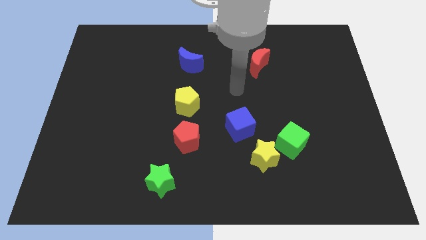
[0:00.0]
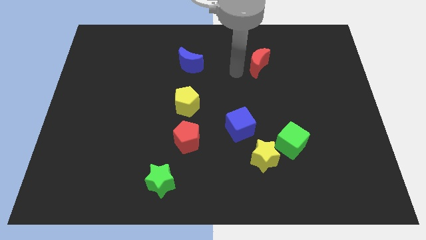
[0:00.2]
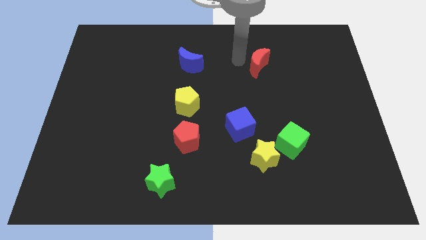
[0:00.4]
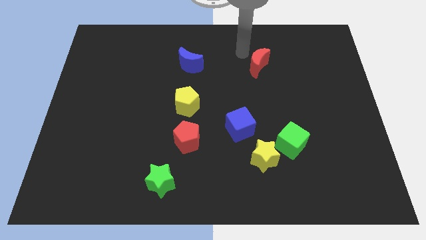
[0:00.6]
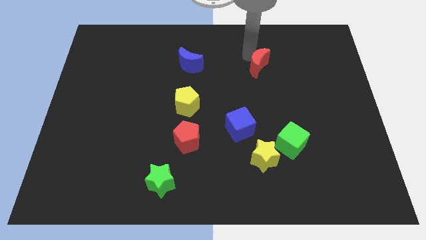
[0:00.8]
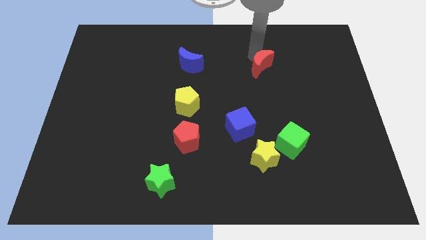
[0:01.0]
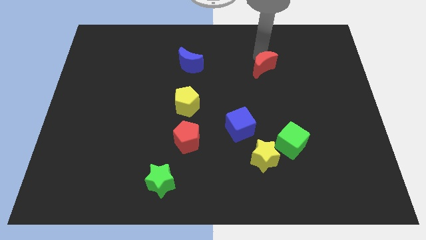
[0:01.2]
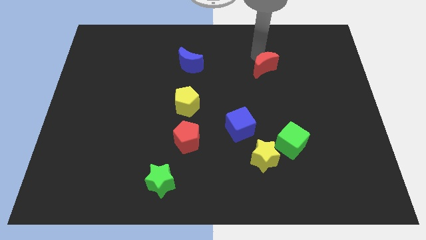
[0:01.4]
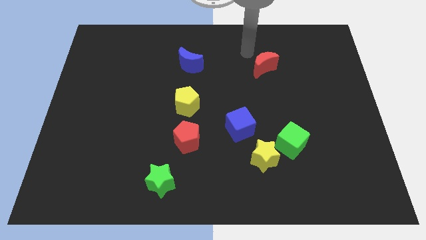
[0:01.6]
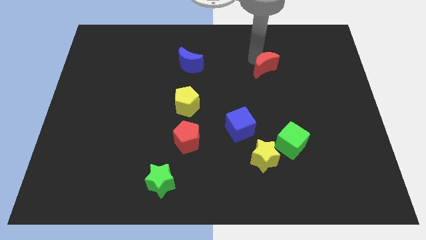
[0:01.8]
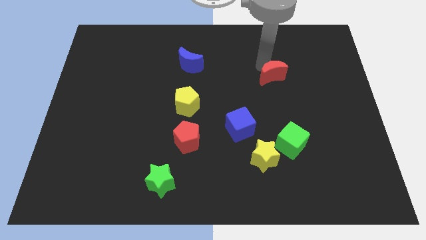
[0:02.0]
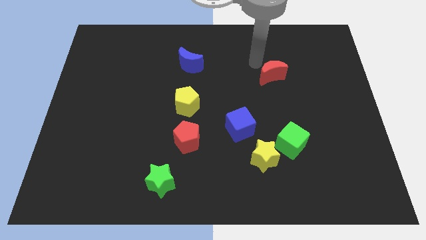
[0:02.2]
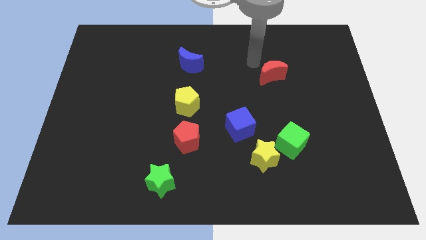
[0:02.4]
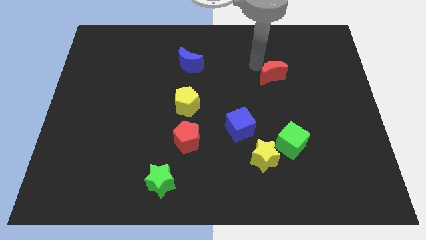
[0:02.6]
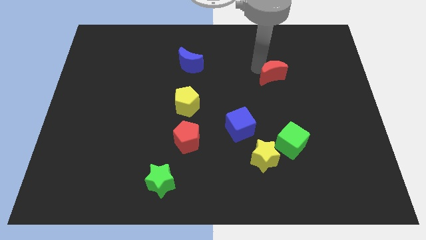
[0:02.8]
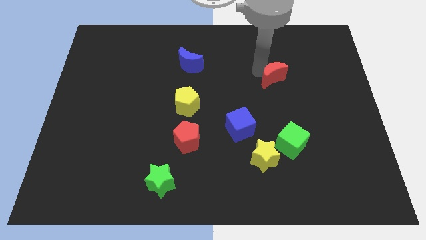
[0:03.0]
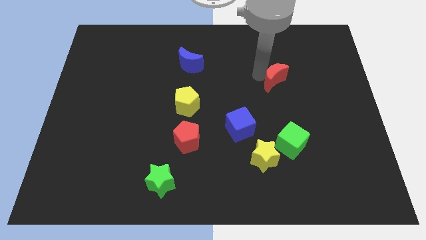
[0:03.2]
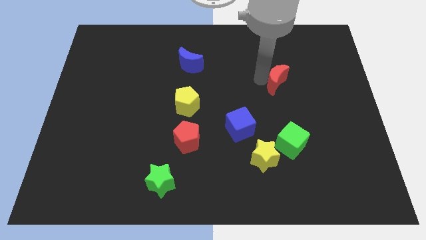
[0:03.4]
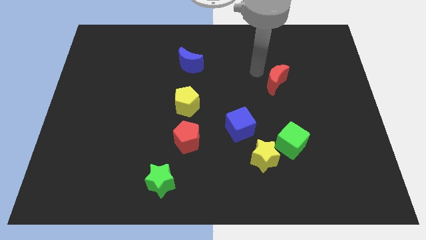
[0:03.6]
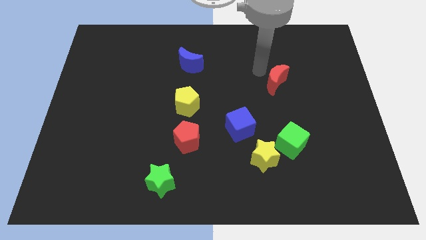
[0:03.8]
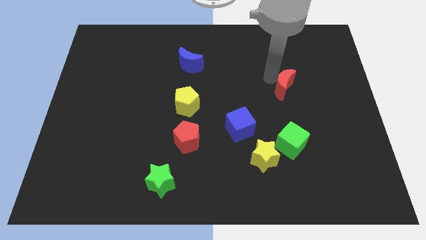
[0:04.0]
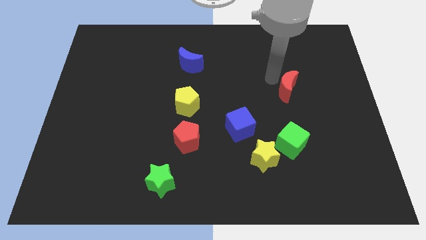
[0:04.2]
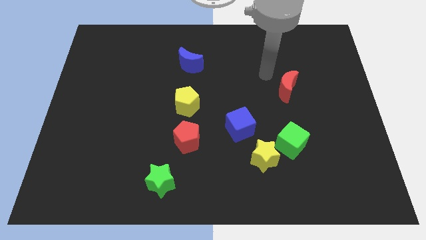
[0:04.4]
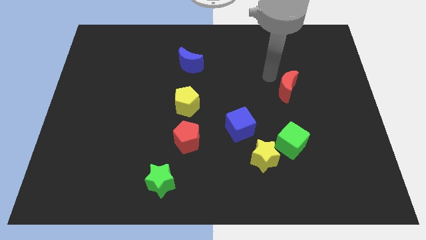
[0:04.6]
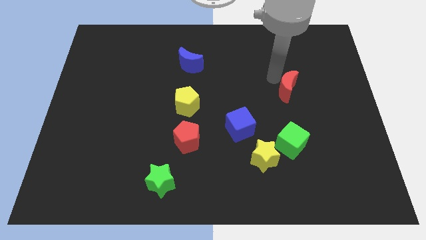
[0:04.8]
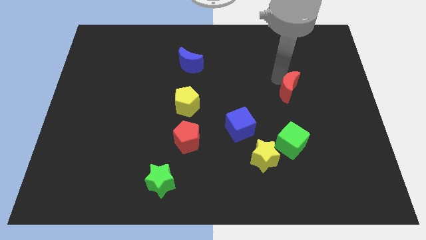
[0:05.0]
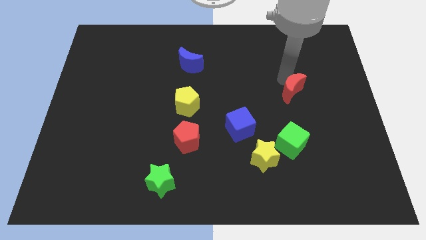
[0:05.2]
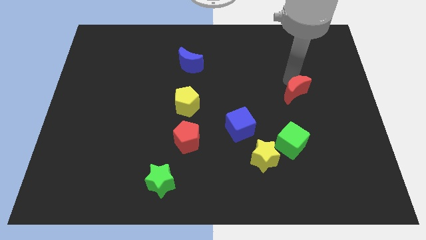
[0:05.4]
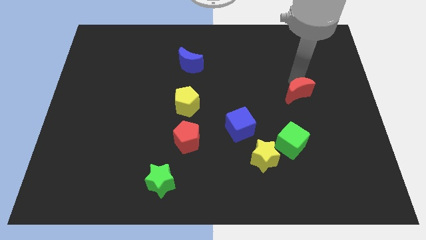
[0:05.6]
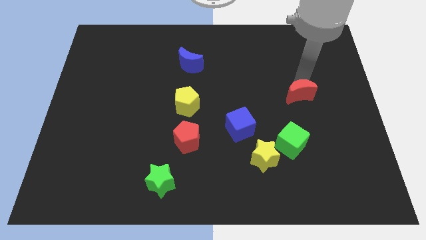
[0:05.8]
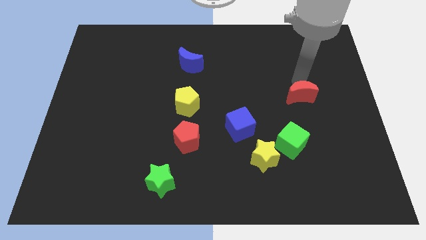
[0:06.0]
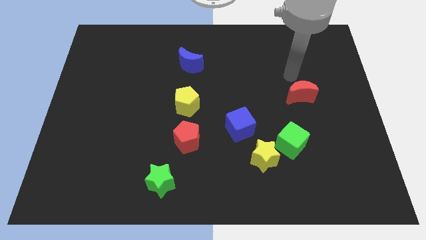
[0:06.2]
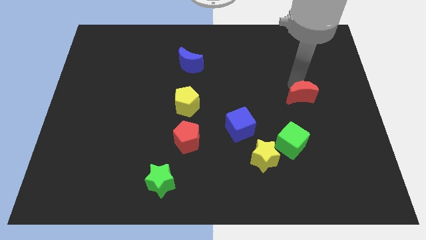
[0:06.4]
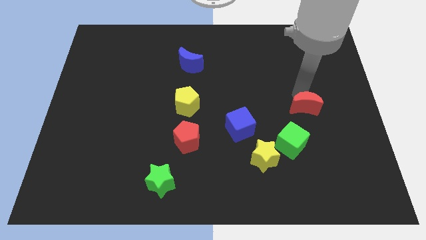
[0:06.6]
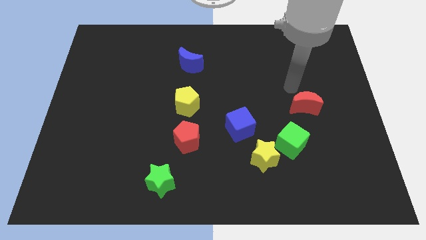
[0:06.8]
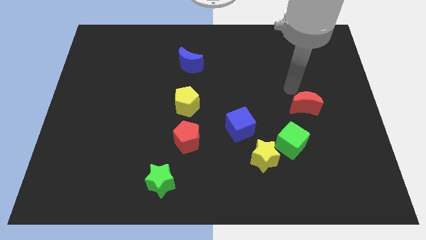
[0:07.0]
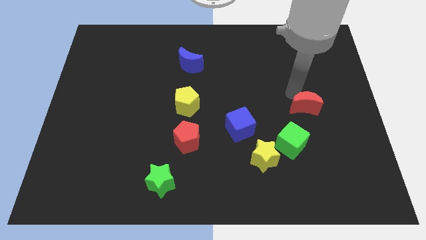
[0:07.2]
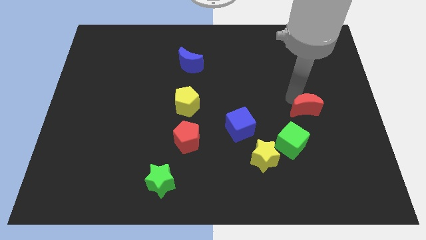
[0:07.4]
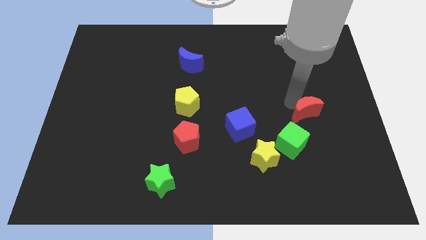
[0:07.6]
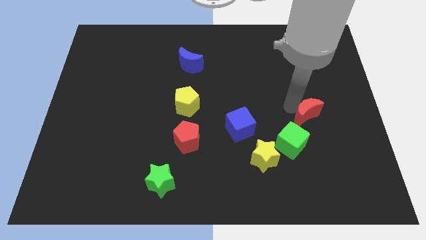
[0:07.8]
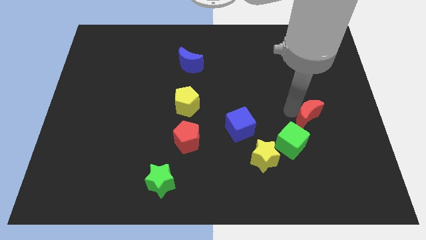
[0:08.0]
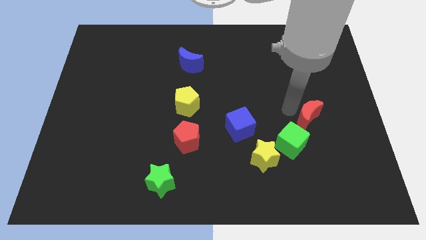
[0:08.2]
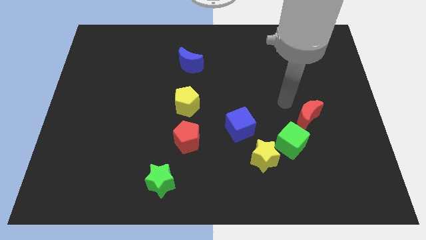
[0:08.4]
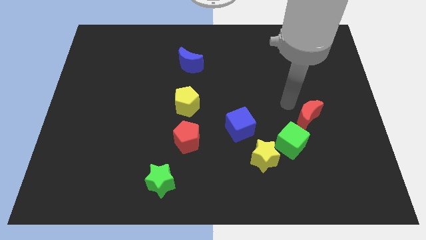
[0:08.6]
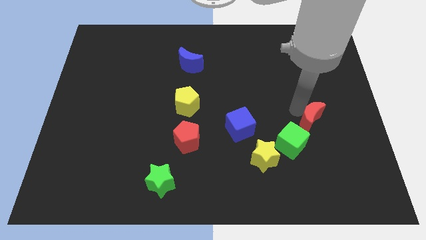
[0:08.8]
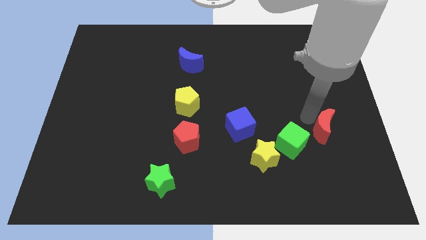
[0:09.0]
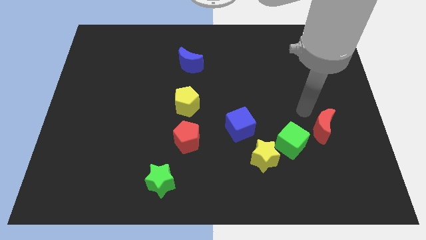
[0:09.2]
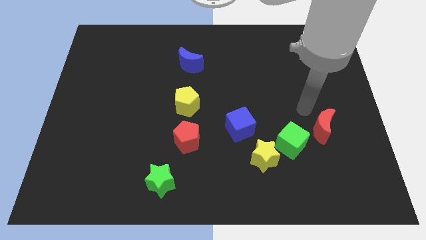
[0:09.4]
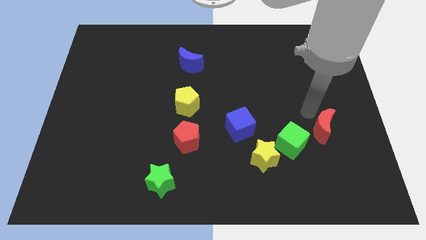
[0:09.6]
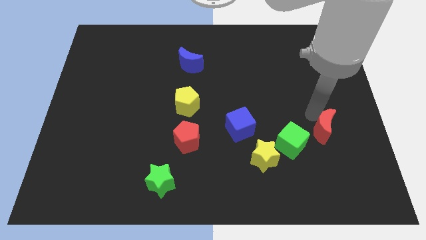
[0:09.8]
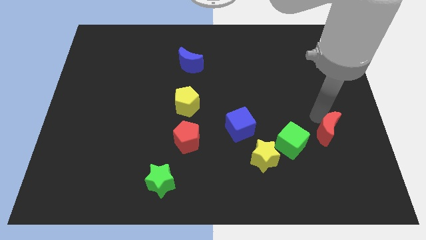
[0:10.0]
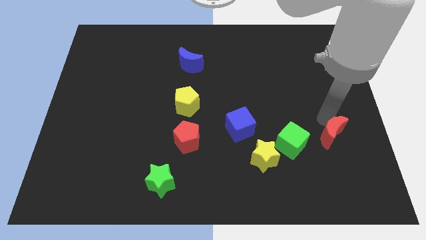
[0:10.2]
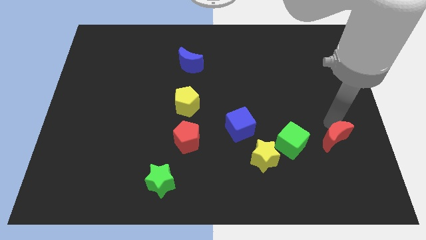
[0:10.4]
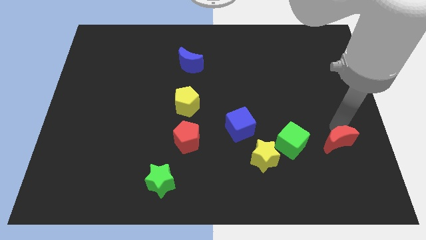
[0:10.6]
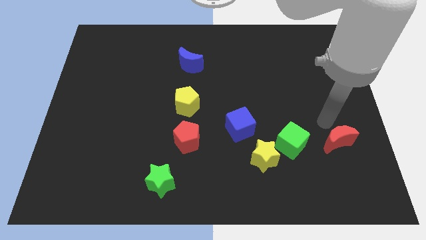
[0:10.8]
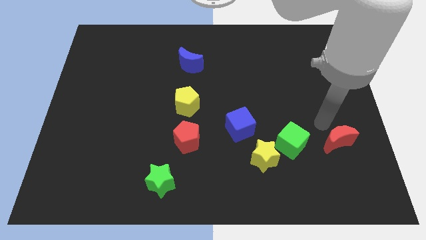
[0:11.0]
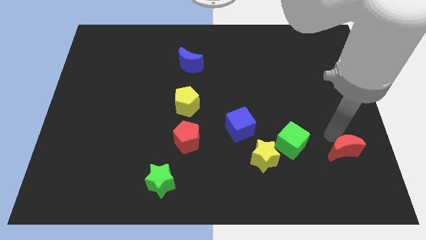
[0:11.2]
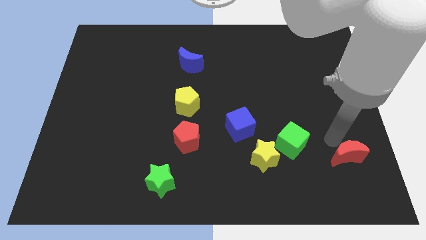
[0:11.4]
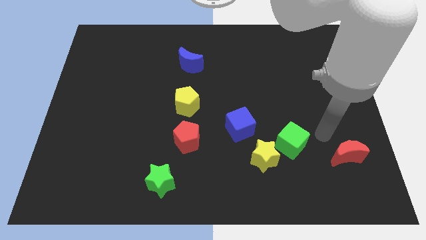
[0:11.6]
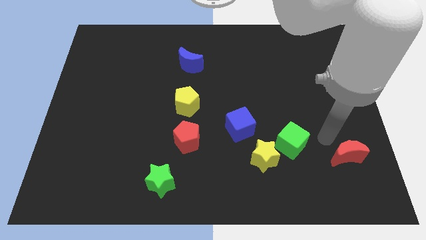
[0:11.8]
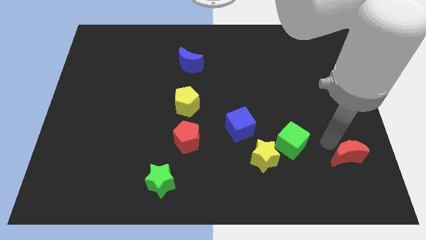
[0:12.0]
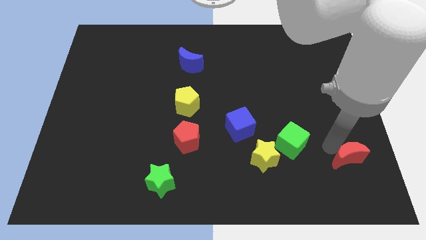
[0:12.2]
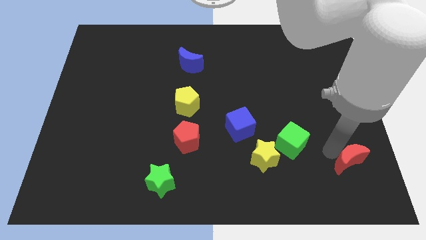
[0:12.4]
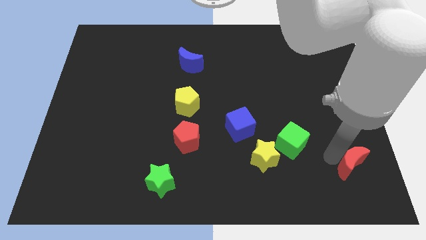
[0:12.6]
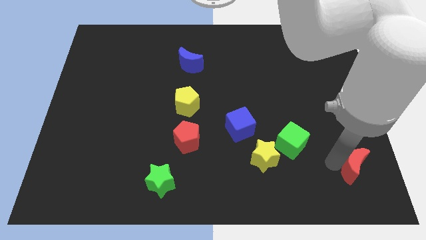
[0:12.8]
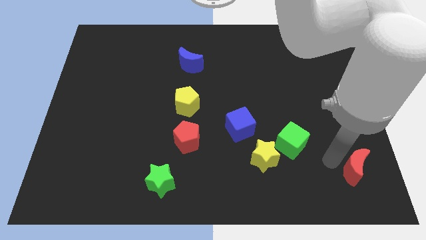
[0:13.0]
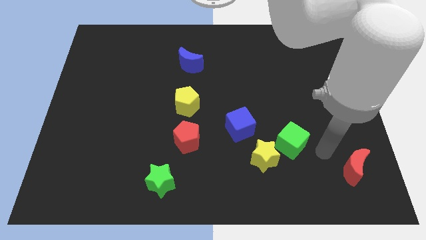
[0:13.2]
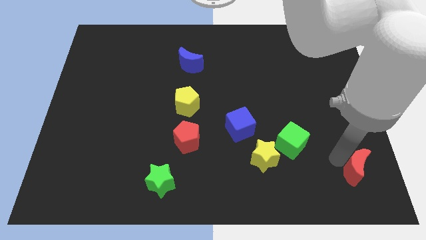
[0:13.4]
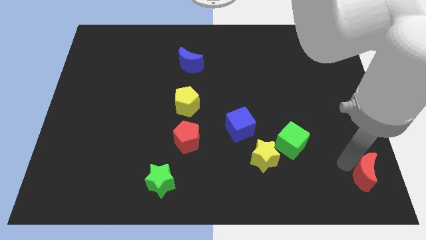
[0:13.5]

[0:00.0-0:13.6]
put the red moon to the bottom right of the board

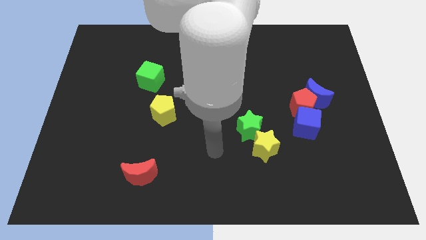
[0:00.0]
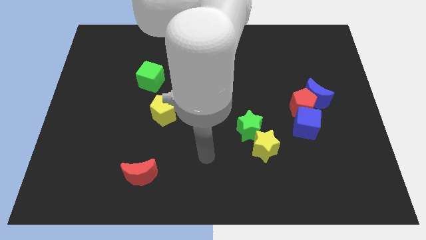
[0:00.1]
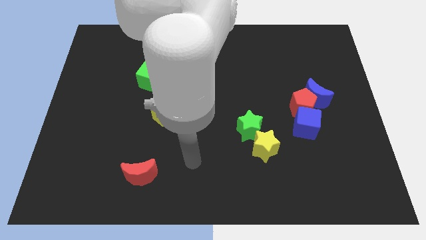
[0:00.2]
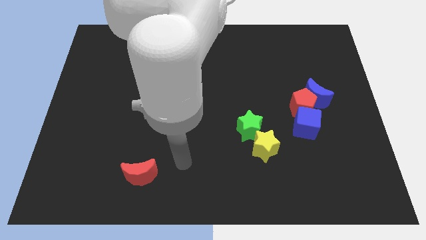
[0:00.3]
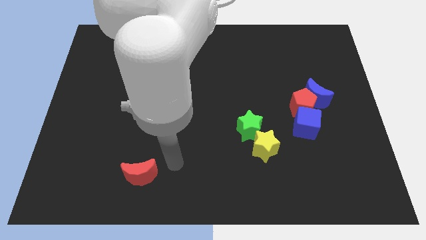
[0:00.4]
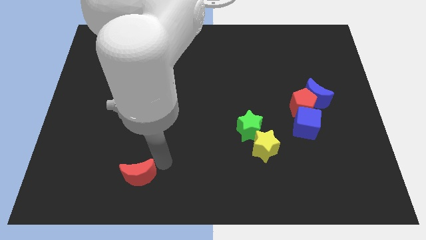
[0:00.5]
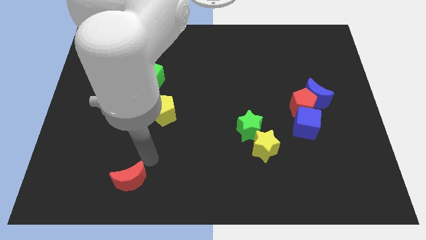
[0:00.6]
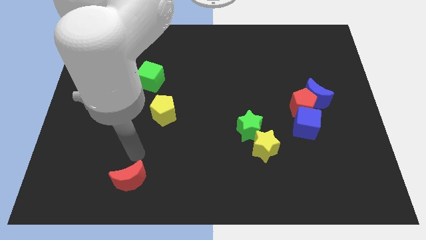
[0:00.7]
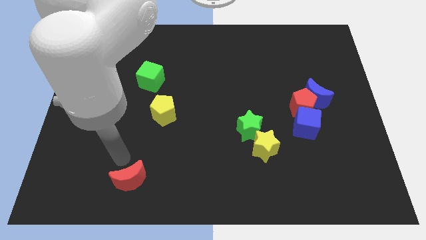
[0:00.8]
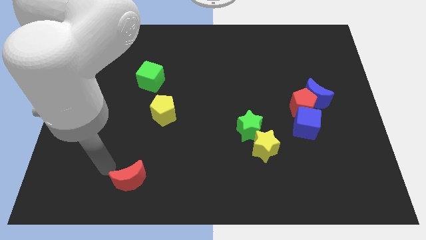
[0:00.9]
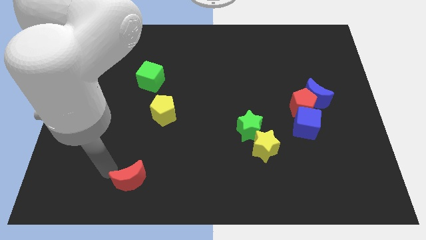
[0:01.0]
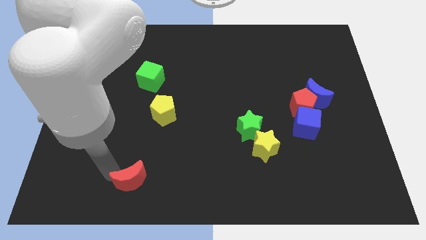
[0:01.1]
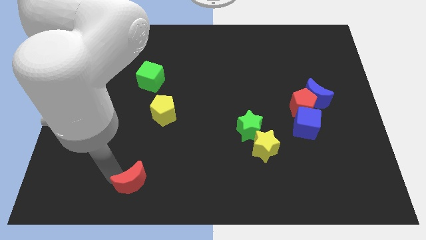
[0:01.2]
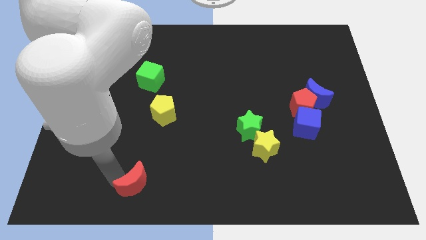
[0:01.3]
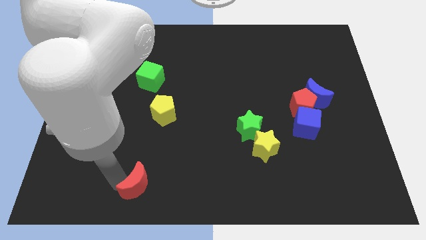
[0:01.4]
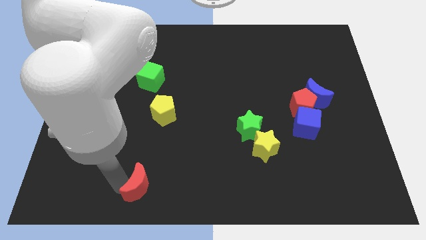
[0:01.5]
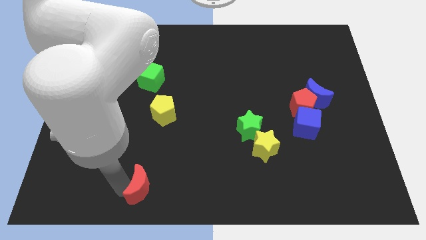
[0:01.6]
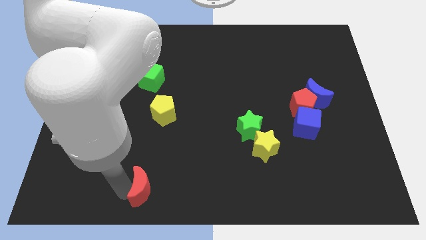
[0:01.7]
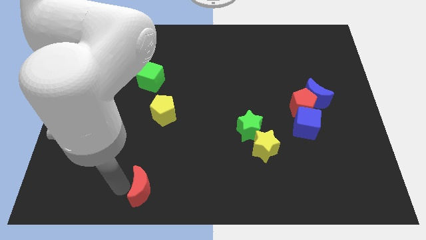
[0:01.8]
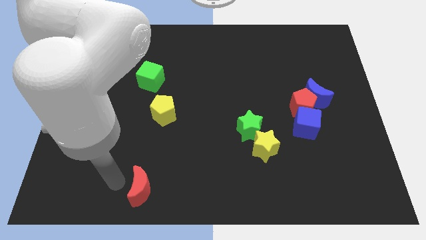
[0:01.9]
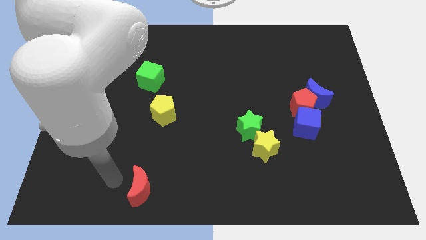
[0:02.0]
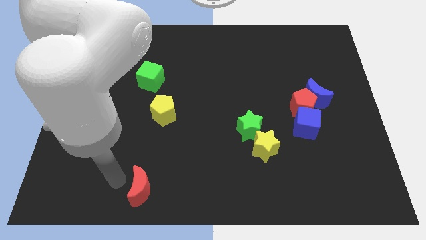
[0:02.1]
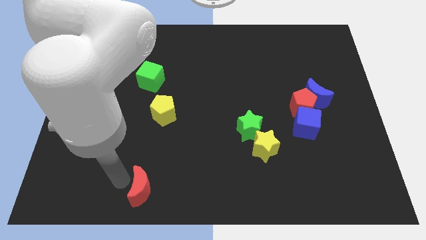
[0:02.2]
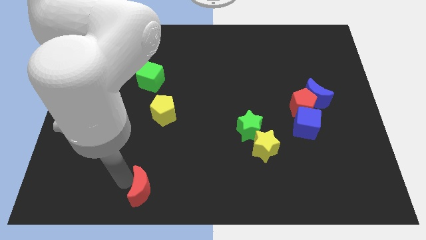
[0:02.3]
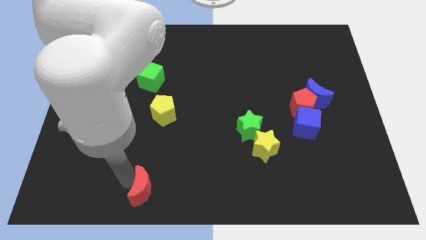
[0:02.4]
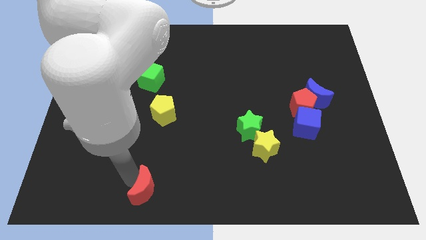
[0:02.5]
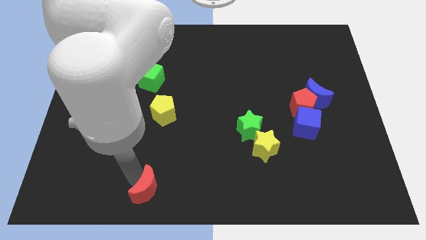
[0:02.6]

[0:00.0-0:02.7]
slide the red moon to the bottom side
